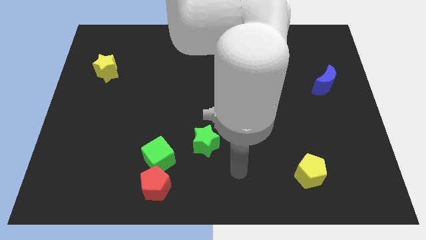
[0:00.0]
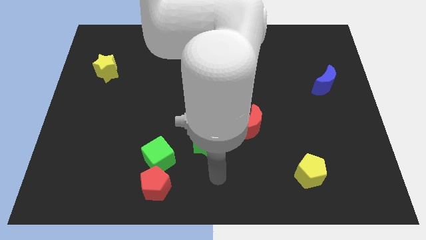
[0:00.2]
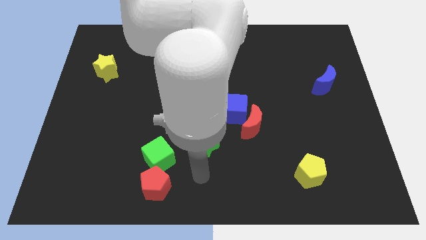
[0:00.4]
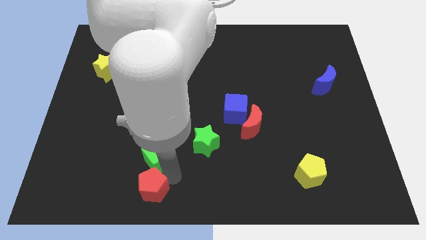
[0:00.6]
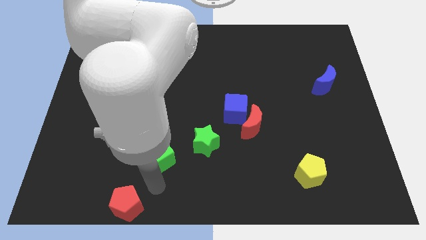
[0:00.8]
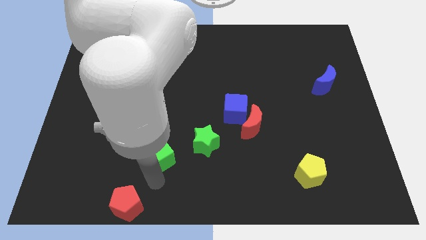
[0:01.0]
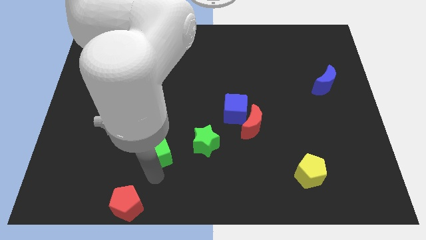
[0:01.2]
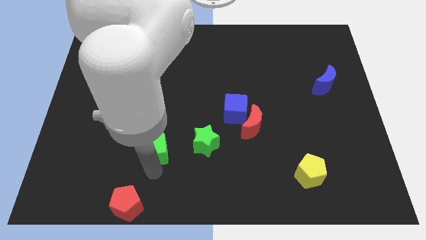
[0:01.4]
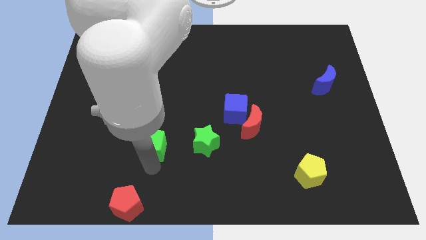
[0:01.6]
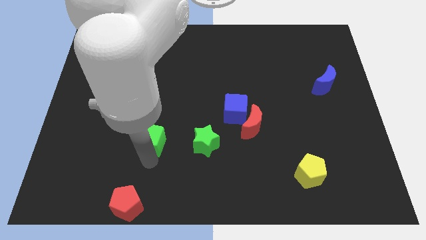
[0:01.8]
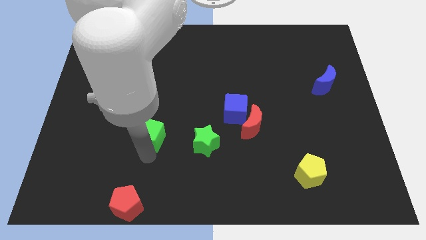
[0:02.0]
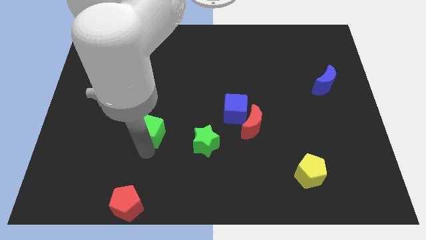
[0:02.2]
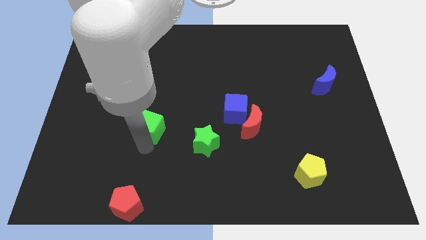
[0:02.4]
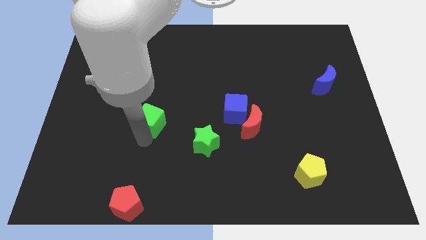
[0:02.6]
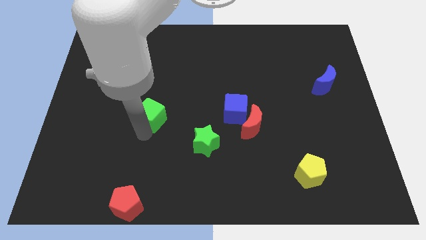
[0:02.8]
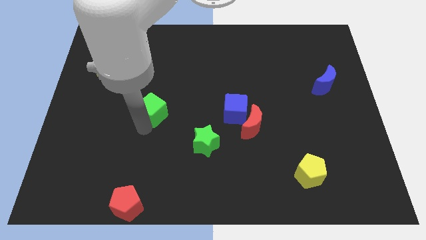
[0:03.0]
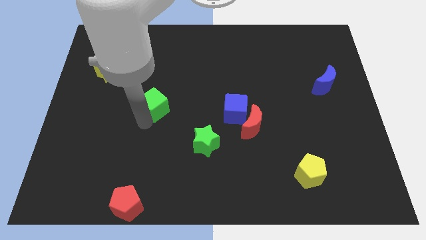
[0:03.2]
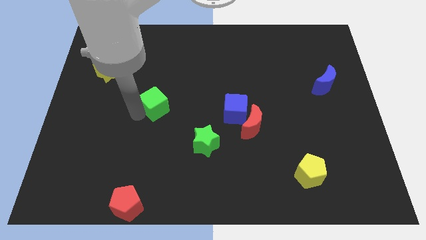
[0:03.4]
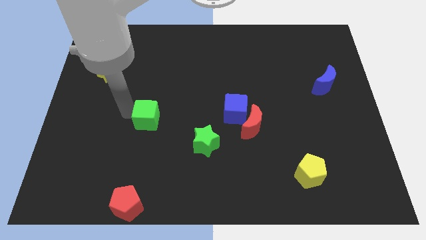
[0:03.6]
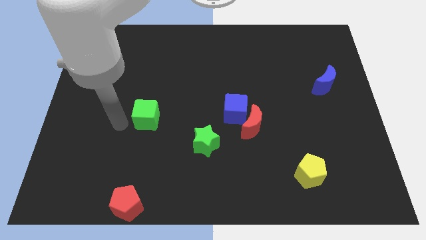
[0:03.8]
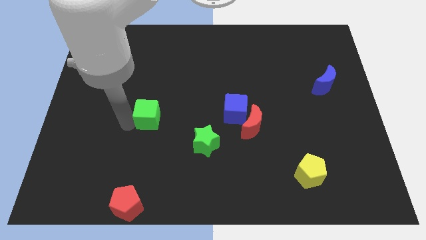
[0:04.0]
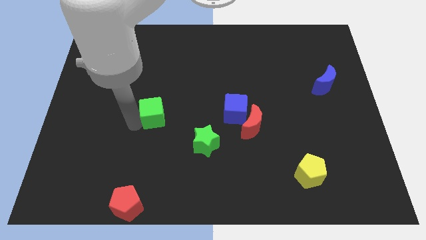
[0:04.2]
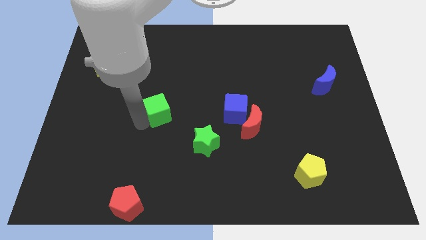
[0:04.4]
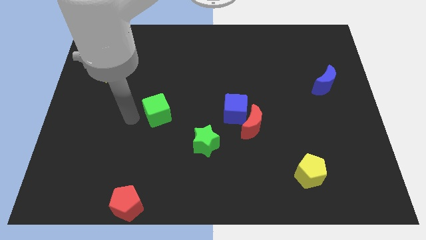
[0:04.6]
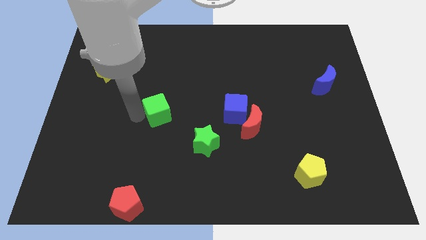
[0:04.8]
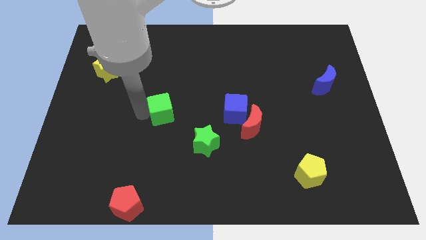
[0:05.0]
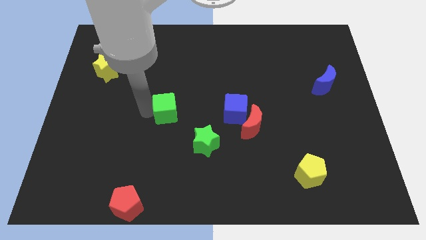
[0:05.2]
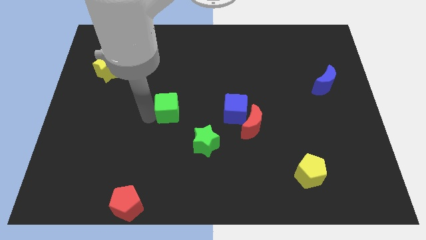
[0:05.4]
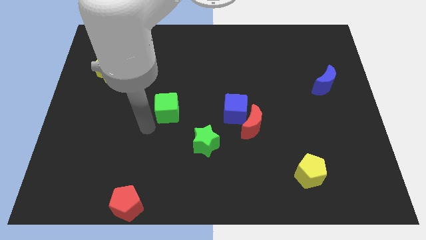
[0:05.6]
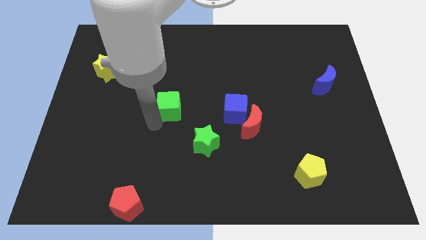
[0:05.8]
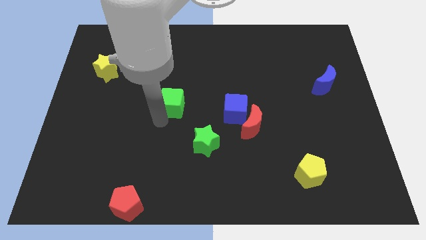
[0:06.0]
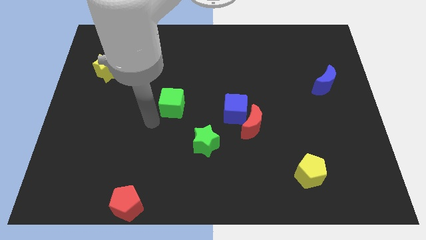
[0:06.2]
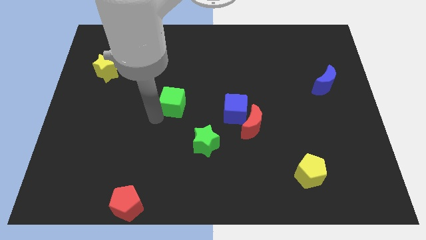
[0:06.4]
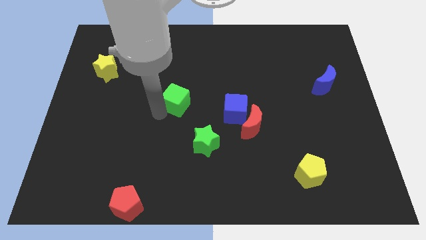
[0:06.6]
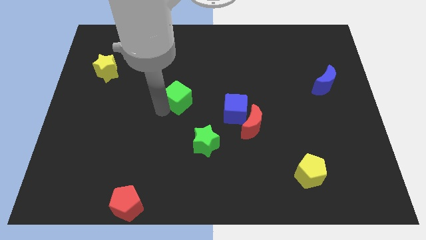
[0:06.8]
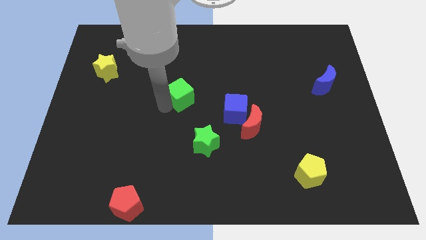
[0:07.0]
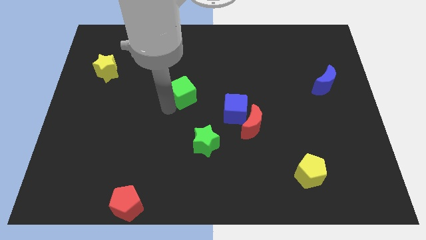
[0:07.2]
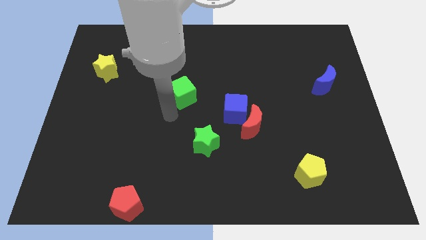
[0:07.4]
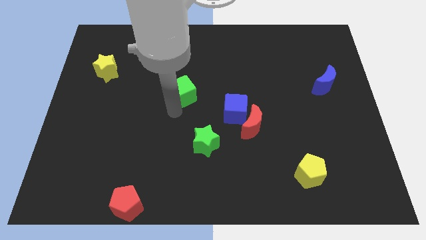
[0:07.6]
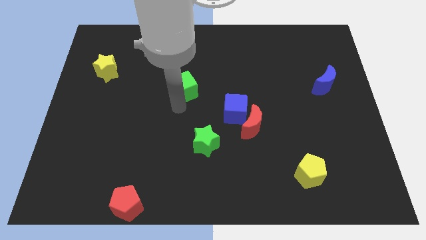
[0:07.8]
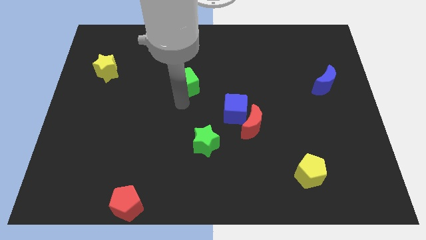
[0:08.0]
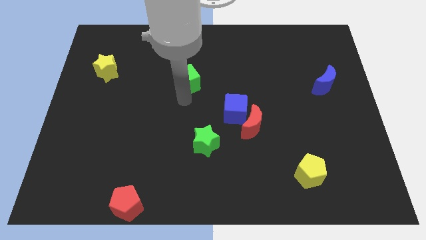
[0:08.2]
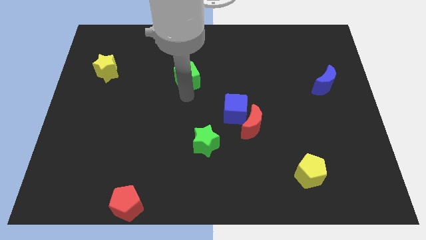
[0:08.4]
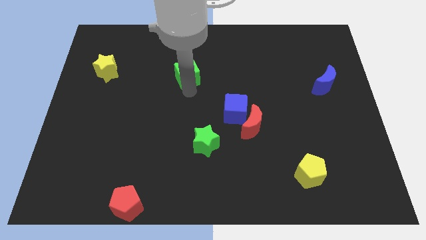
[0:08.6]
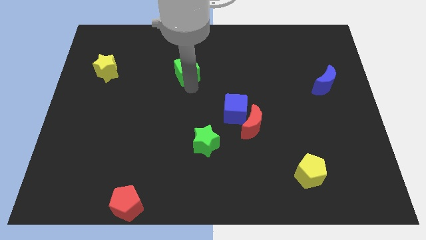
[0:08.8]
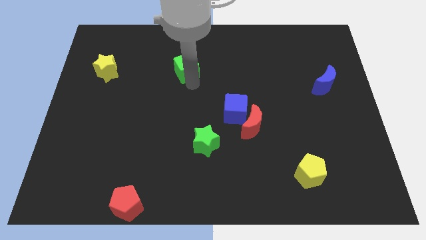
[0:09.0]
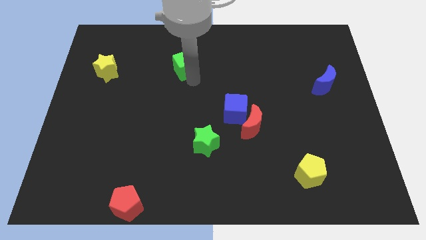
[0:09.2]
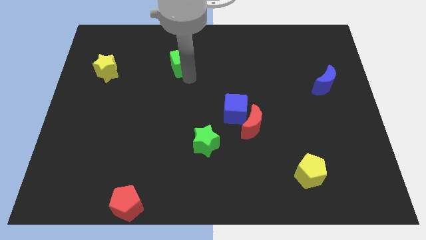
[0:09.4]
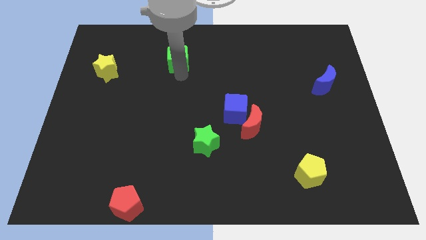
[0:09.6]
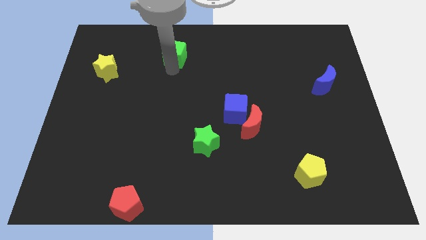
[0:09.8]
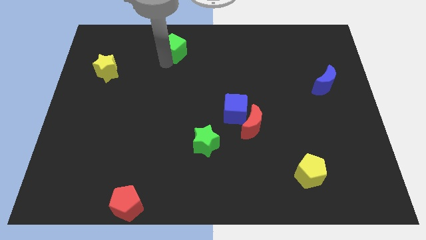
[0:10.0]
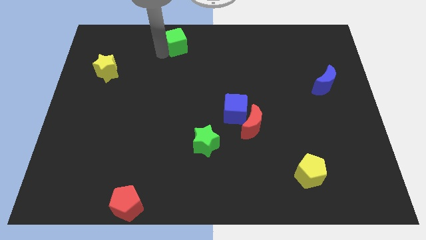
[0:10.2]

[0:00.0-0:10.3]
slide the green cube to the top side

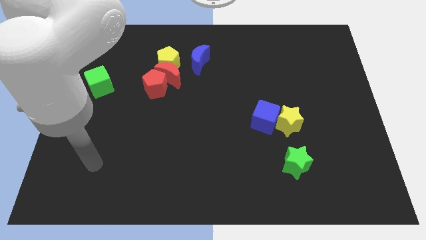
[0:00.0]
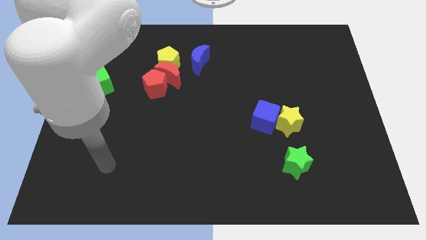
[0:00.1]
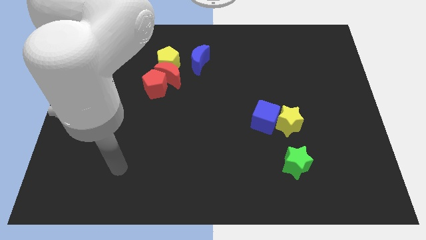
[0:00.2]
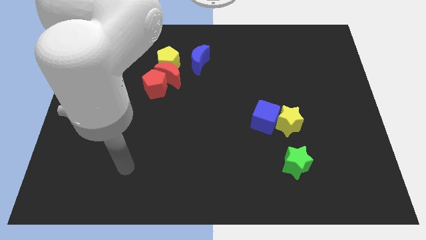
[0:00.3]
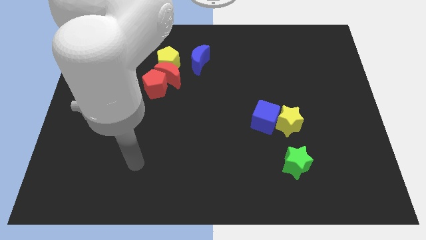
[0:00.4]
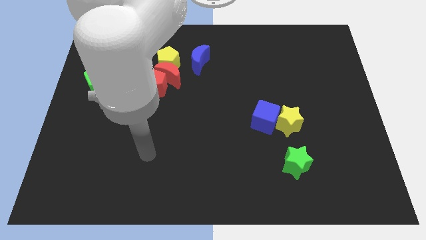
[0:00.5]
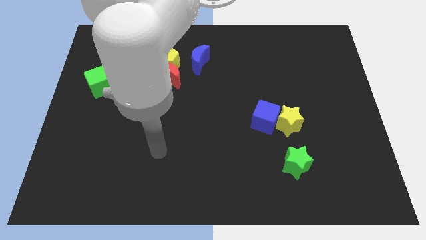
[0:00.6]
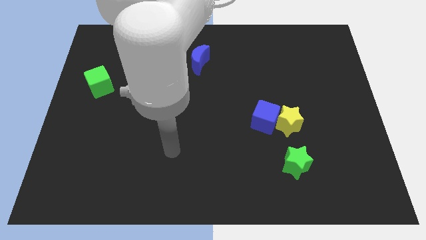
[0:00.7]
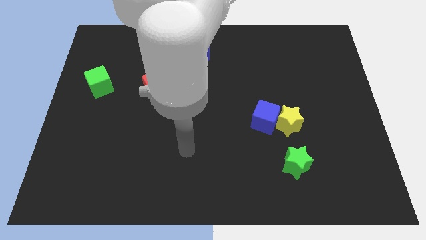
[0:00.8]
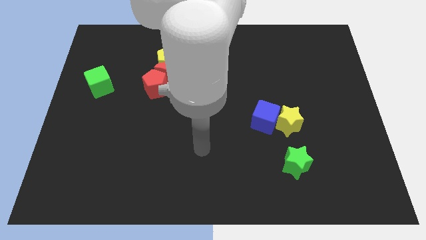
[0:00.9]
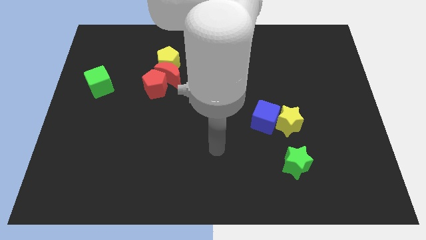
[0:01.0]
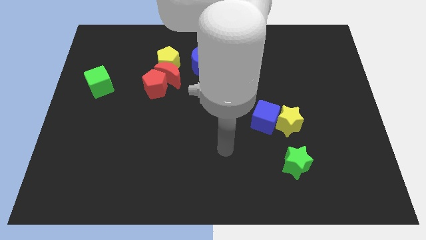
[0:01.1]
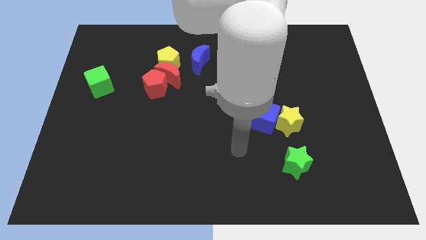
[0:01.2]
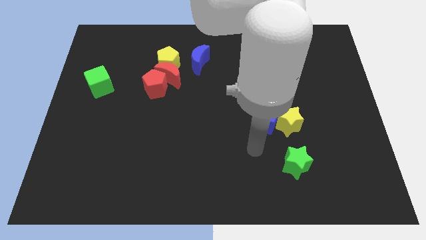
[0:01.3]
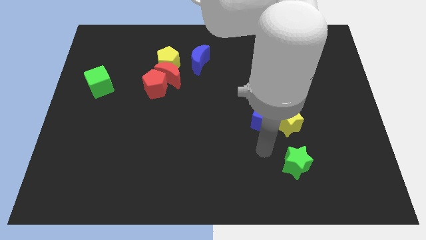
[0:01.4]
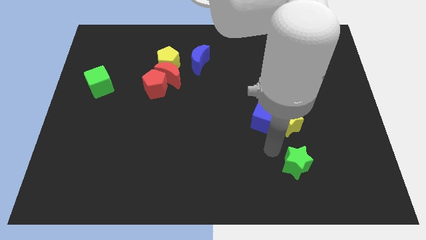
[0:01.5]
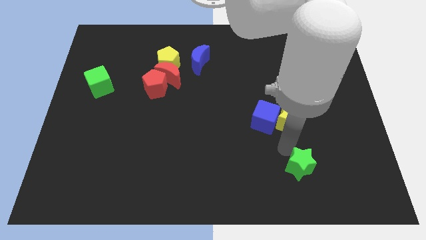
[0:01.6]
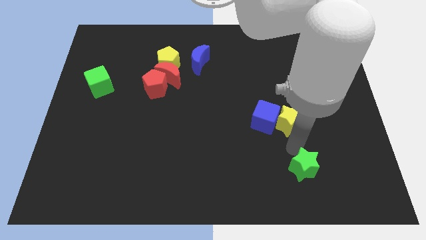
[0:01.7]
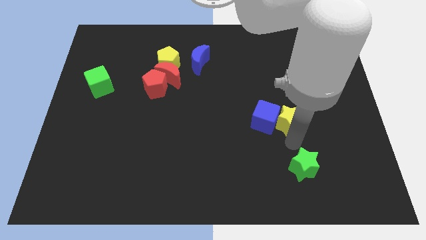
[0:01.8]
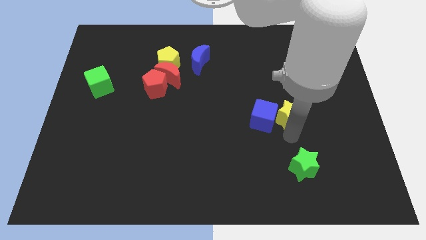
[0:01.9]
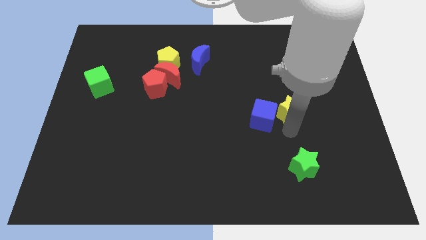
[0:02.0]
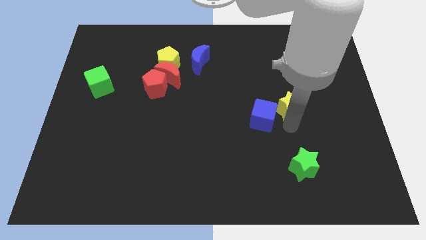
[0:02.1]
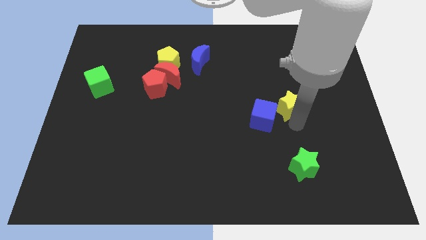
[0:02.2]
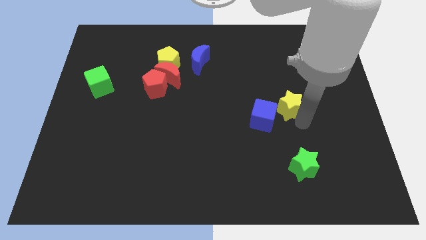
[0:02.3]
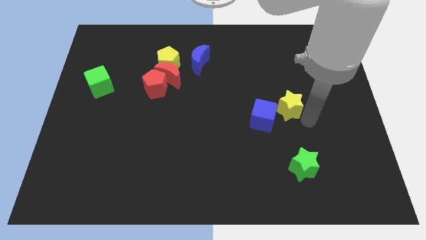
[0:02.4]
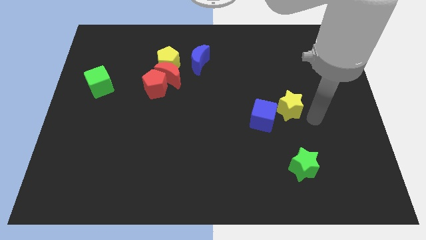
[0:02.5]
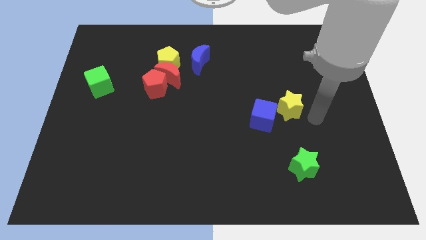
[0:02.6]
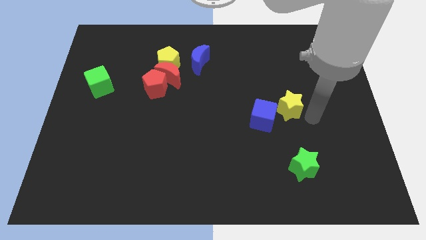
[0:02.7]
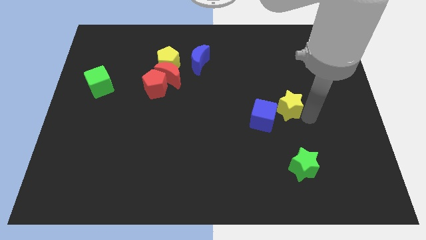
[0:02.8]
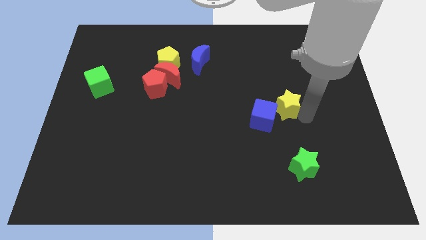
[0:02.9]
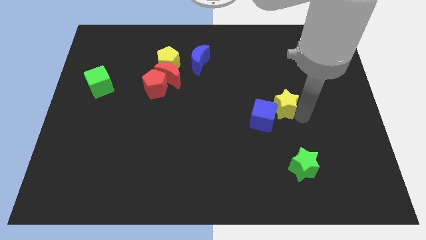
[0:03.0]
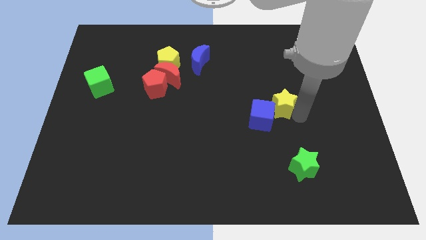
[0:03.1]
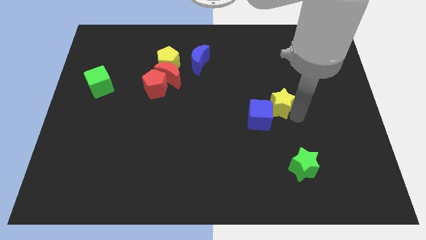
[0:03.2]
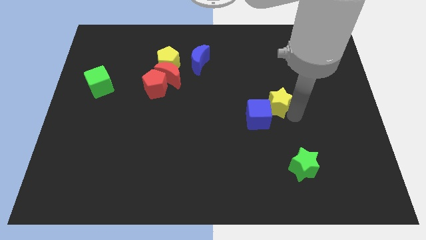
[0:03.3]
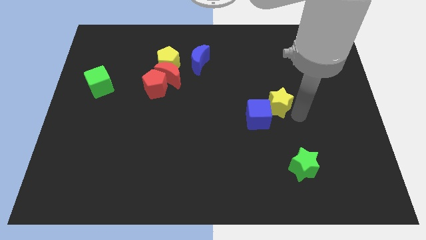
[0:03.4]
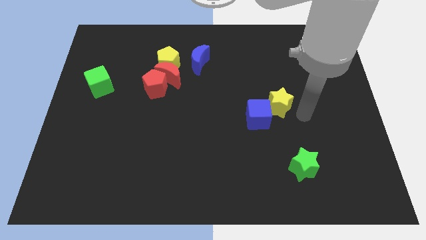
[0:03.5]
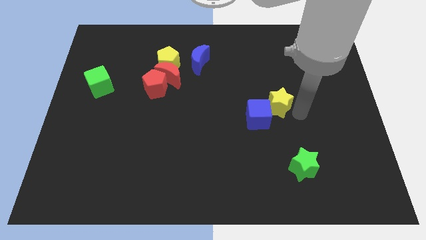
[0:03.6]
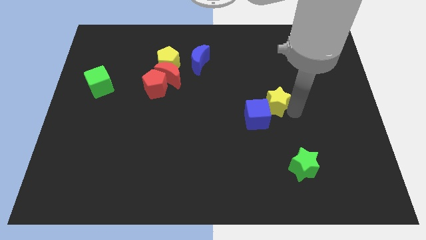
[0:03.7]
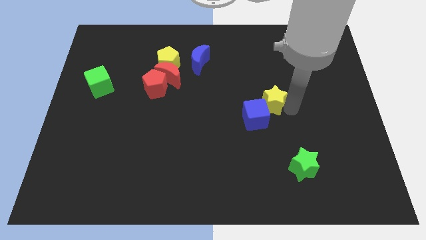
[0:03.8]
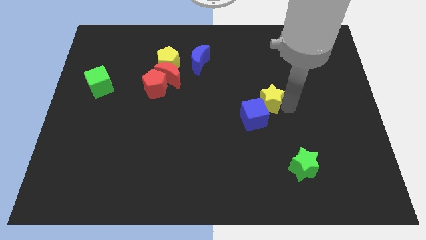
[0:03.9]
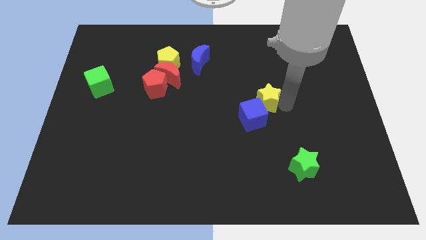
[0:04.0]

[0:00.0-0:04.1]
put the yellow star to the middle of the board
